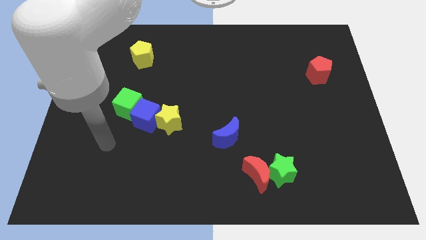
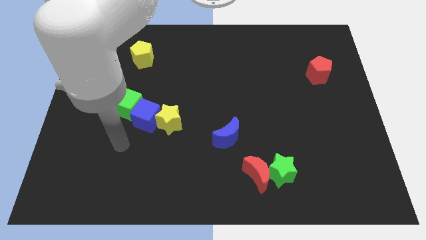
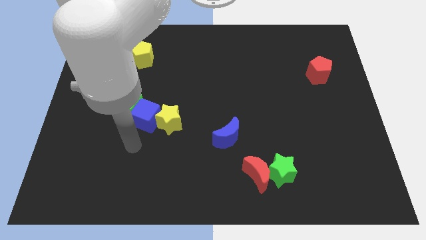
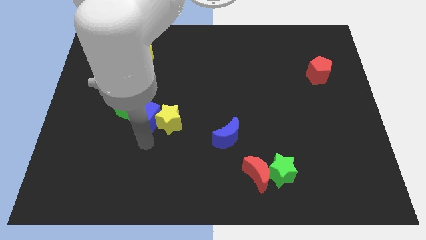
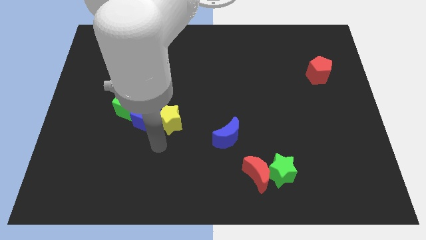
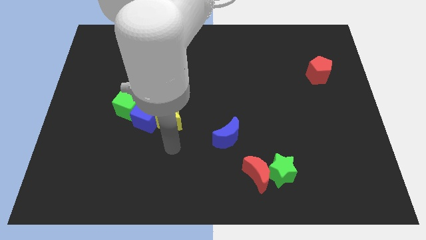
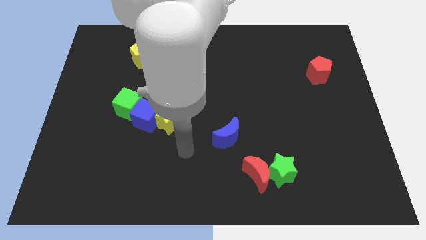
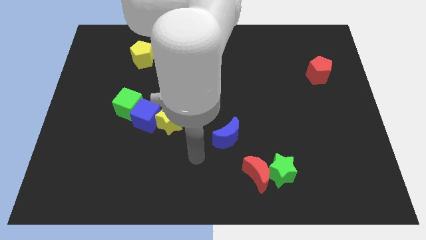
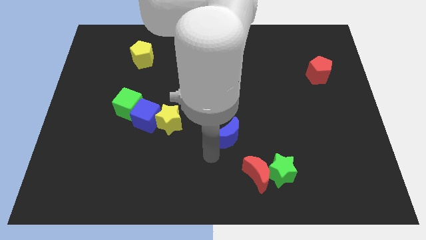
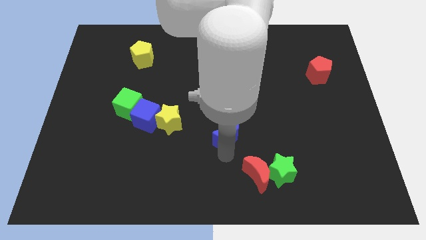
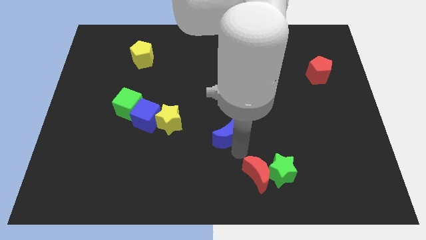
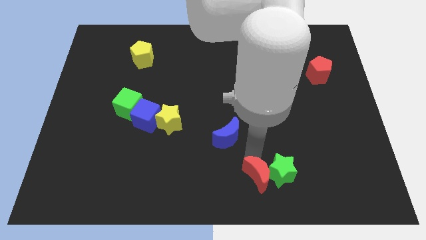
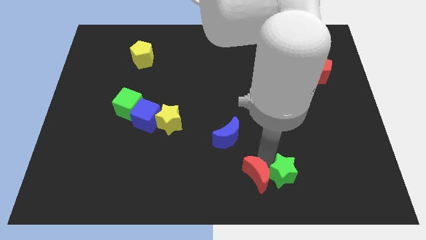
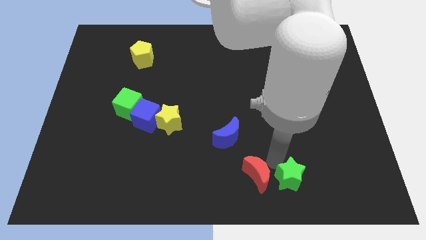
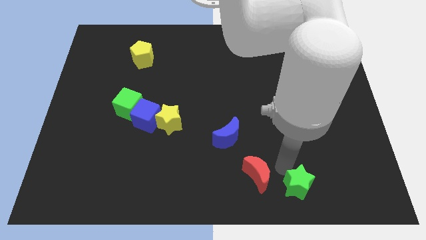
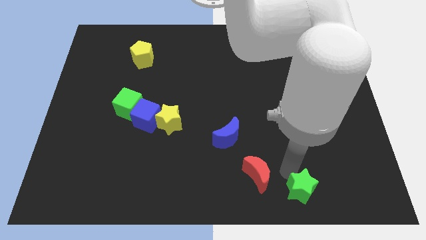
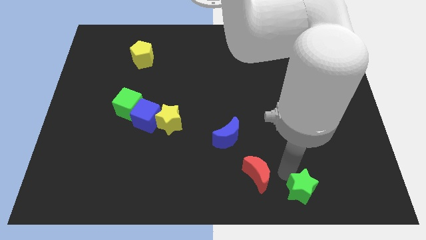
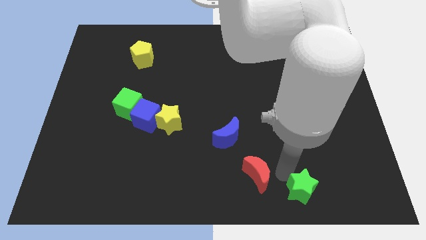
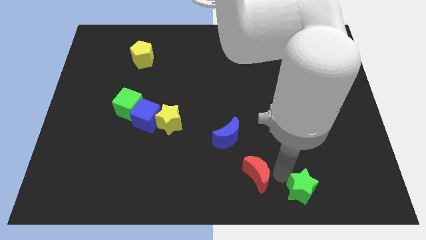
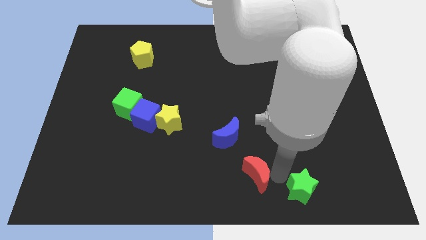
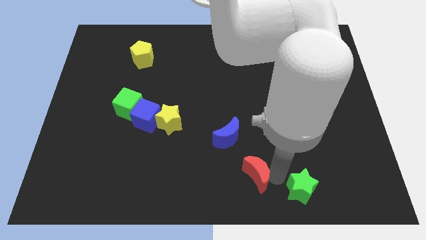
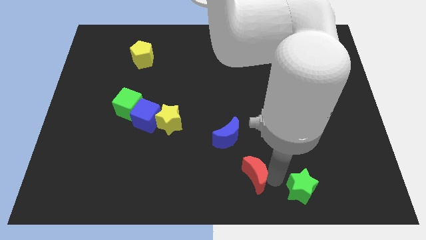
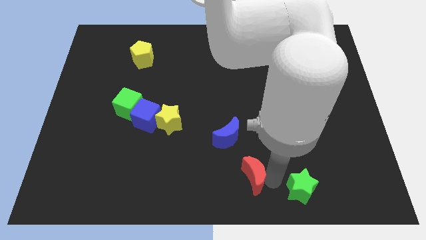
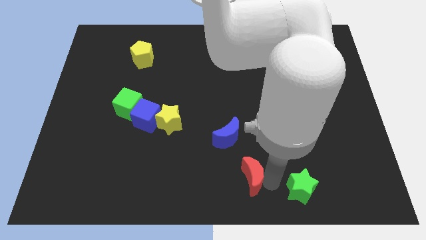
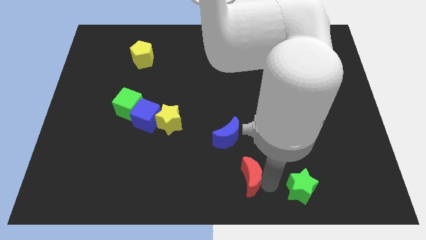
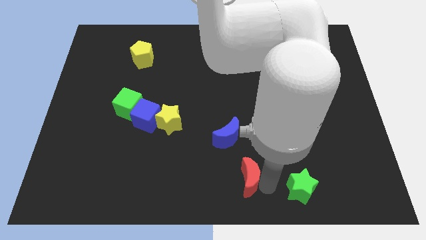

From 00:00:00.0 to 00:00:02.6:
separate the red moon from the green star

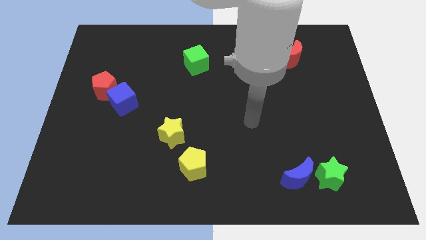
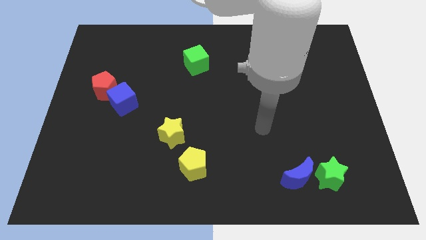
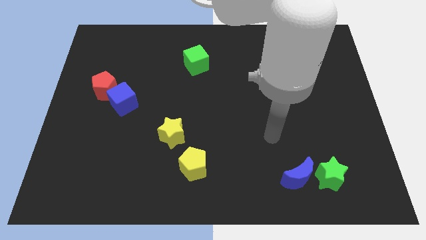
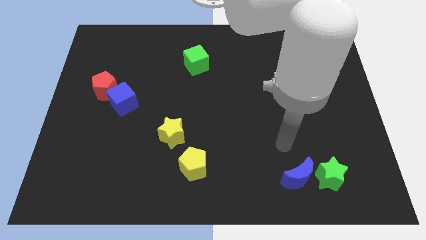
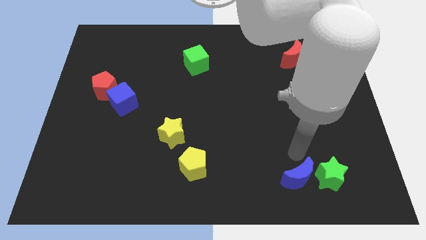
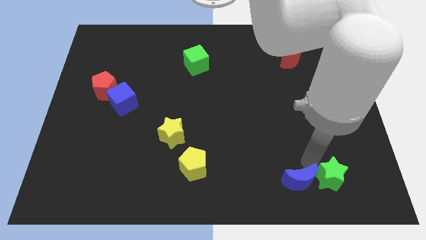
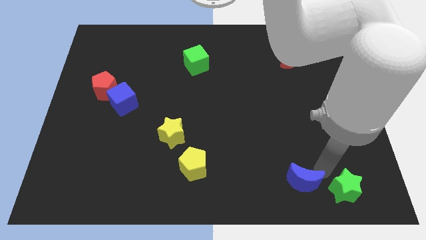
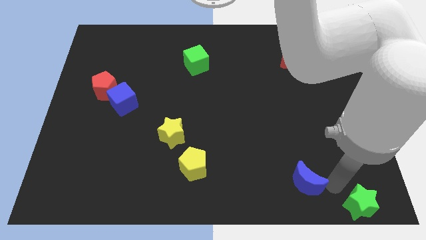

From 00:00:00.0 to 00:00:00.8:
move the blue moon away from the green star

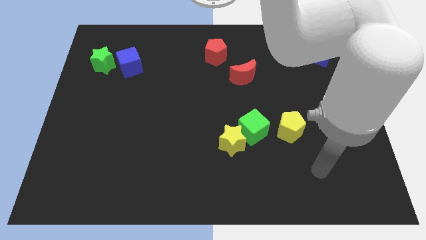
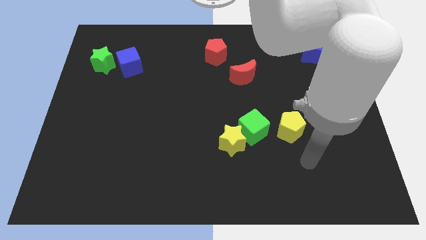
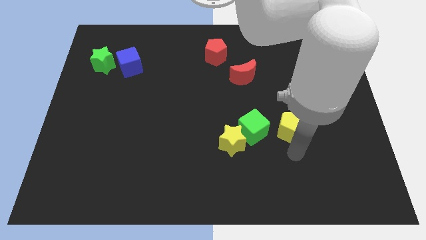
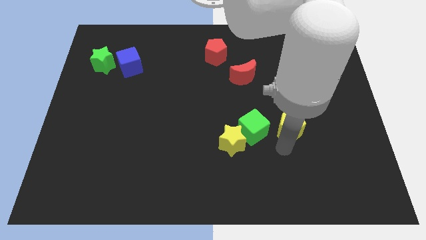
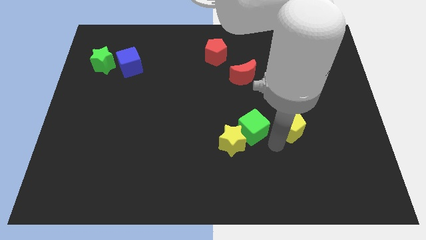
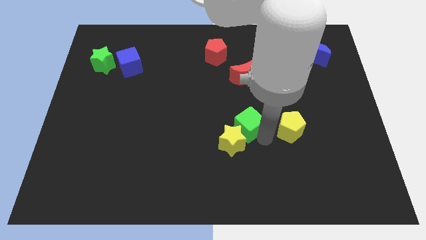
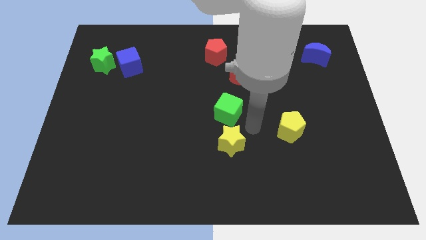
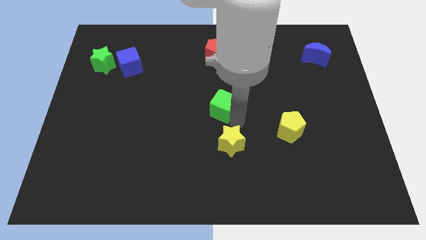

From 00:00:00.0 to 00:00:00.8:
pull the yellow star apart from the green cube

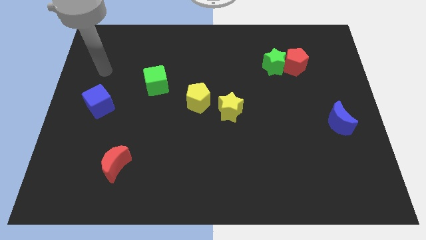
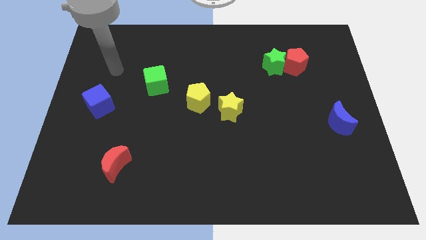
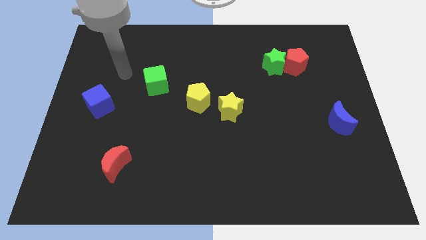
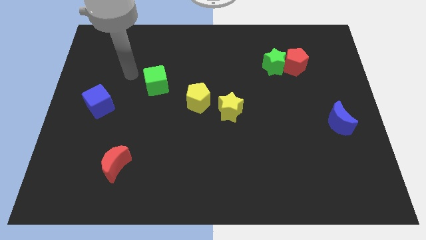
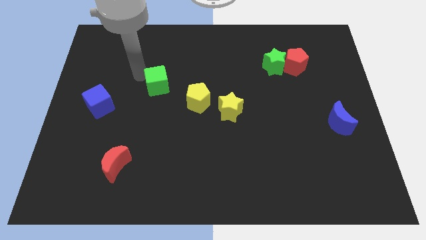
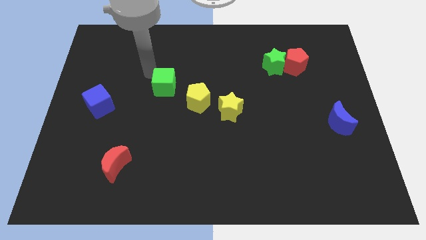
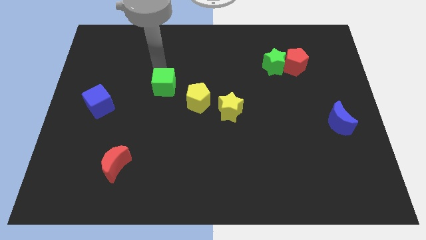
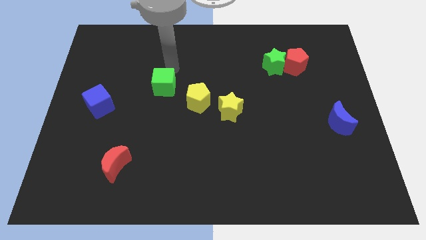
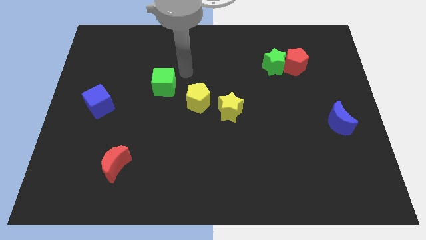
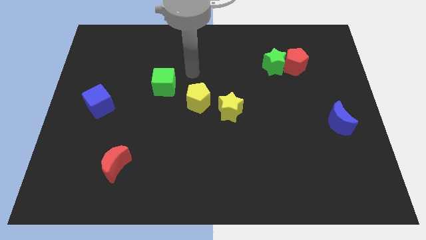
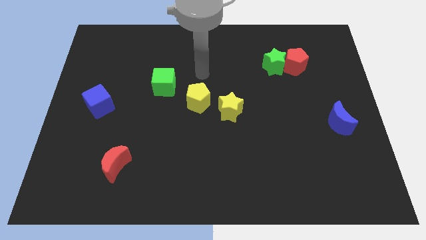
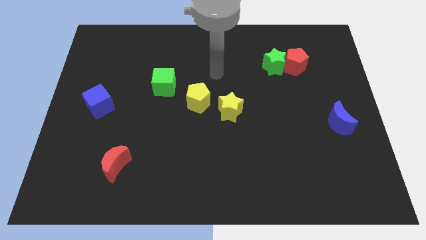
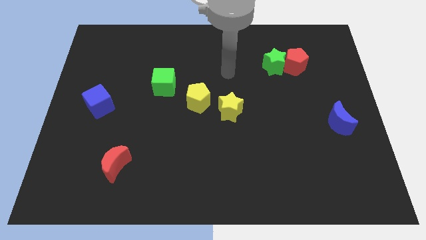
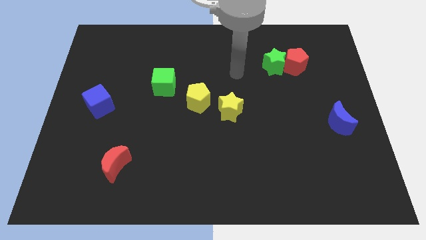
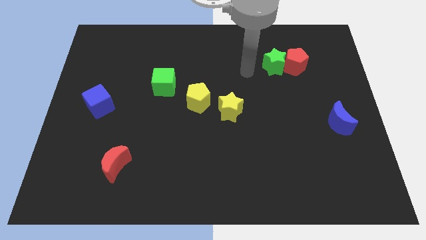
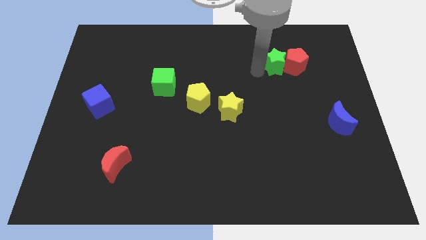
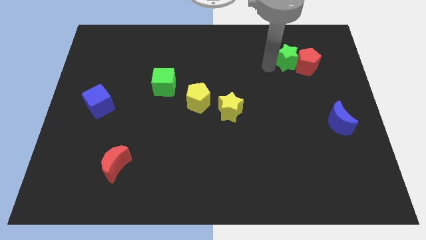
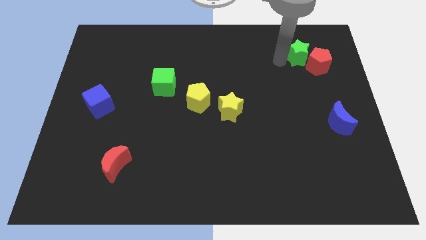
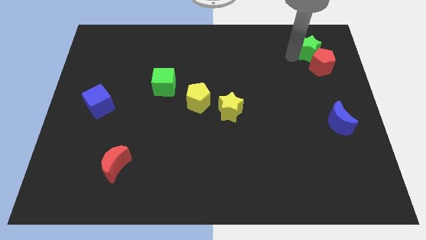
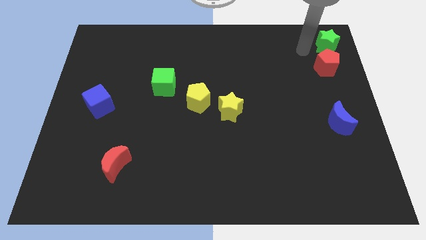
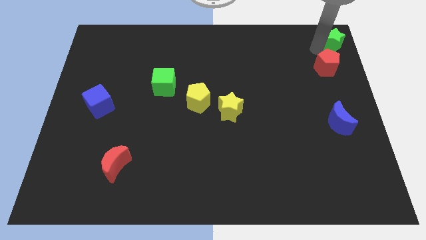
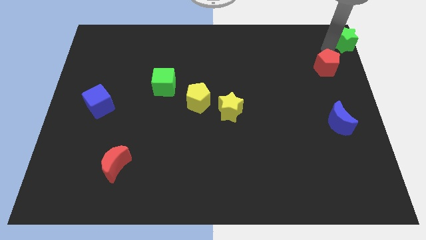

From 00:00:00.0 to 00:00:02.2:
pull the red pentagon apart from the green star

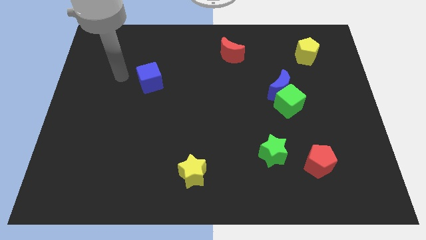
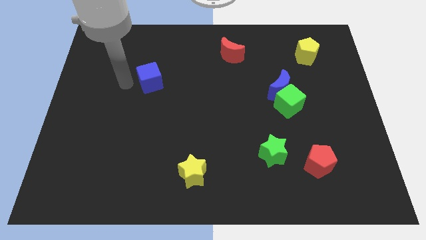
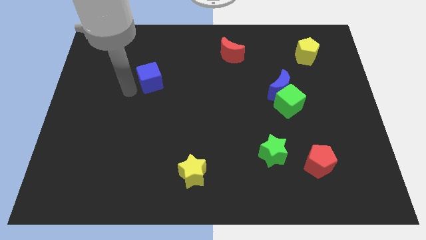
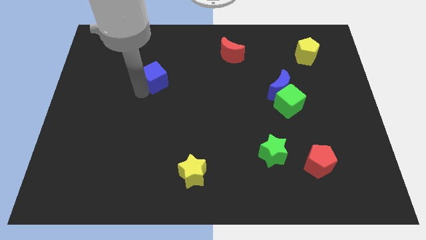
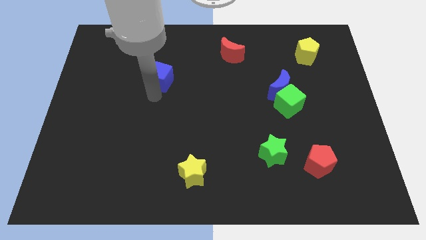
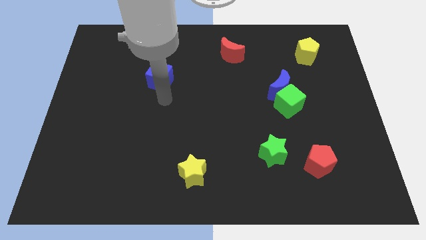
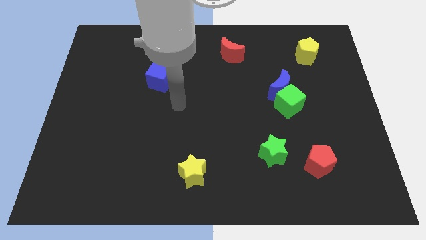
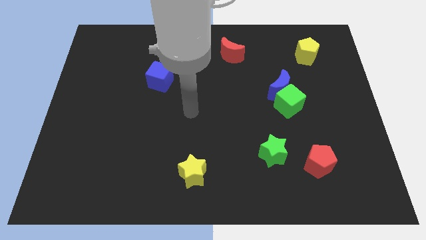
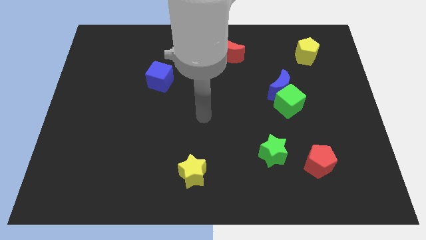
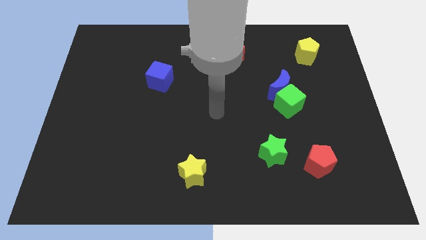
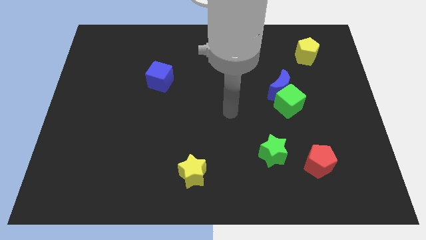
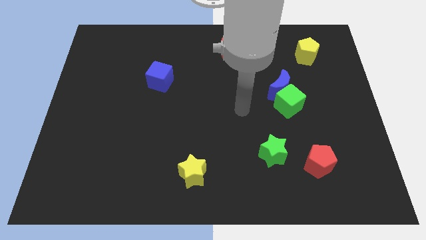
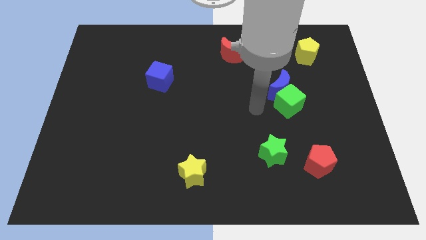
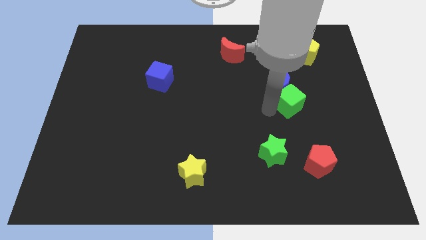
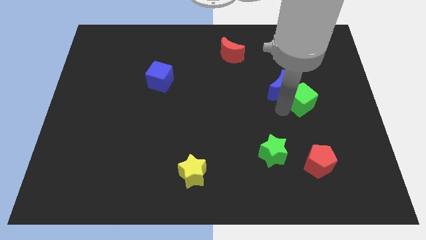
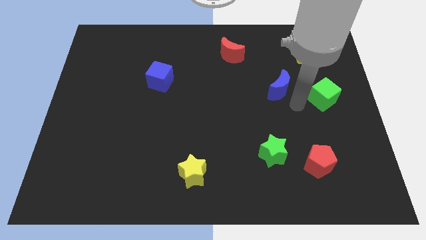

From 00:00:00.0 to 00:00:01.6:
pull the blue moon apart from the green cube

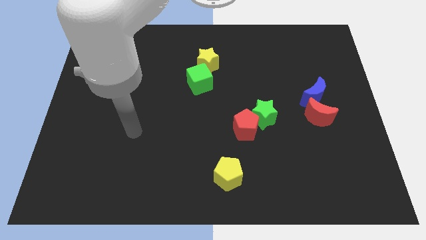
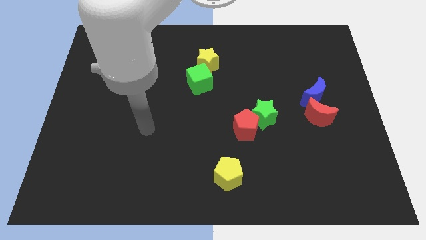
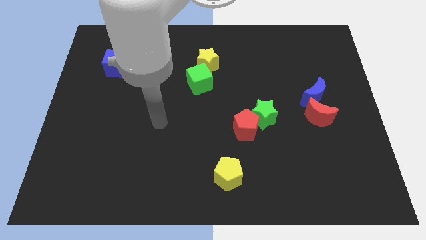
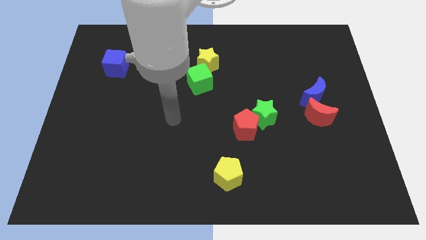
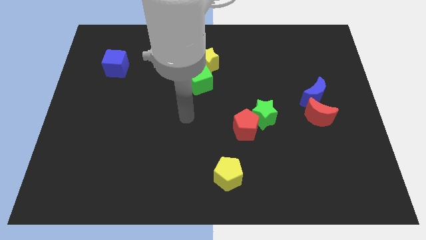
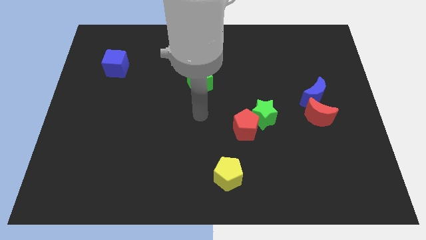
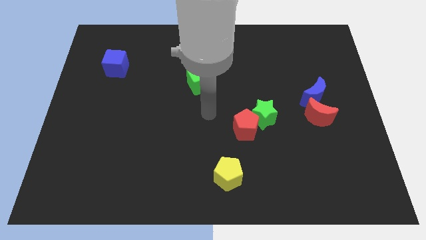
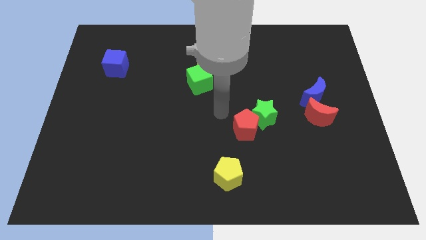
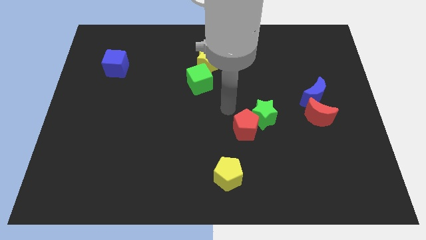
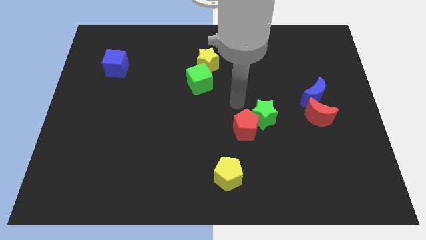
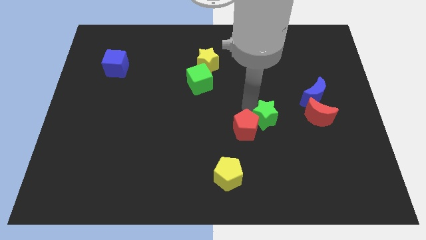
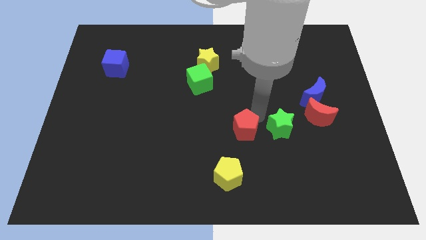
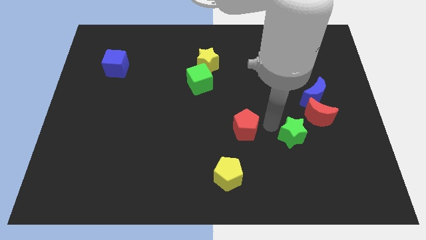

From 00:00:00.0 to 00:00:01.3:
separate the red pentagon from the green star

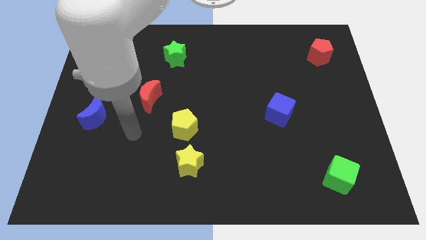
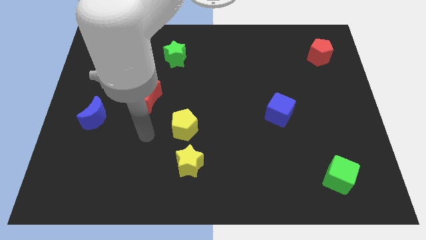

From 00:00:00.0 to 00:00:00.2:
separate the yellow star from the yellow pentagon
